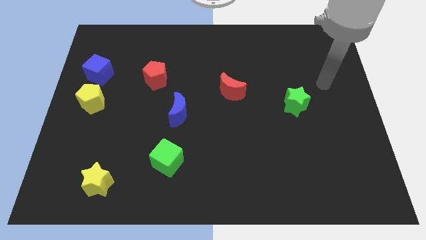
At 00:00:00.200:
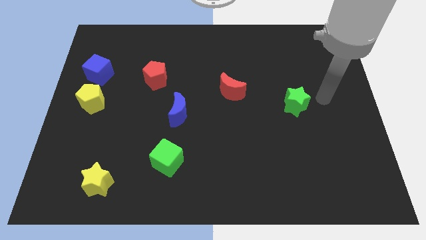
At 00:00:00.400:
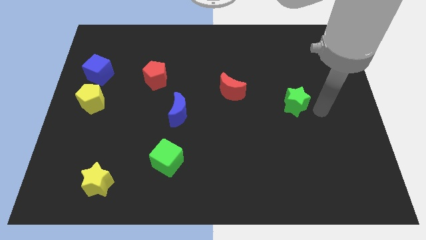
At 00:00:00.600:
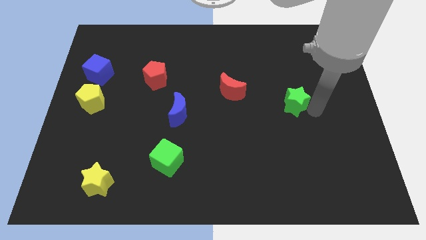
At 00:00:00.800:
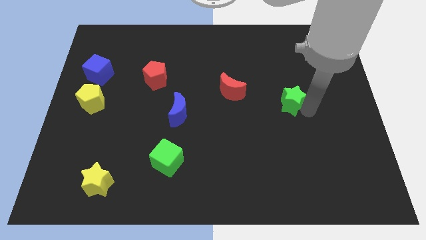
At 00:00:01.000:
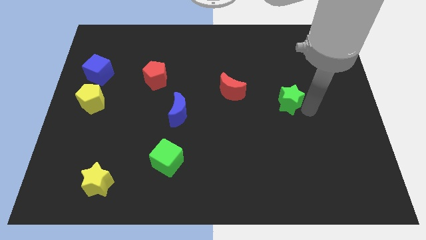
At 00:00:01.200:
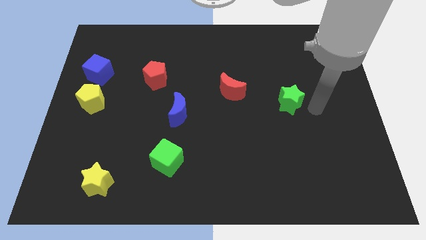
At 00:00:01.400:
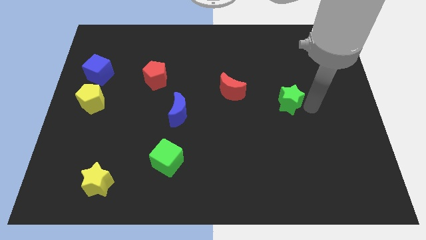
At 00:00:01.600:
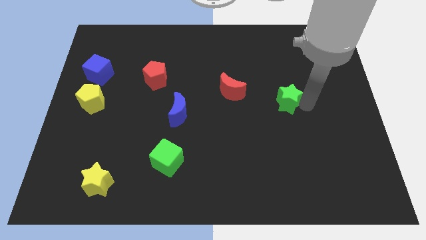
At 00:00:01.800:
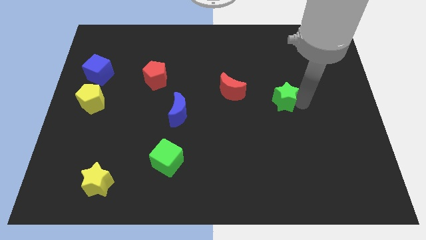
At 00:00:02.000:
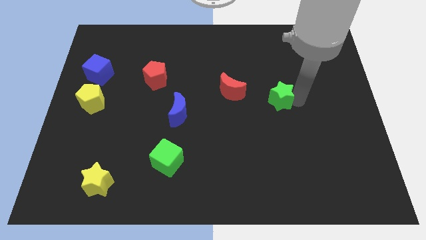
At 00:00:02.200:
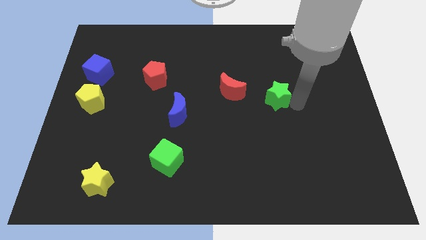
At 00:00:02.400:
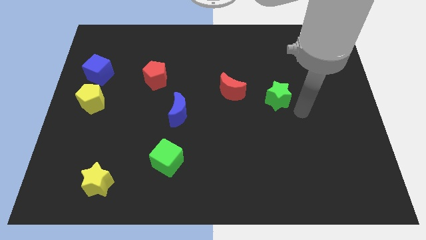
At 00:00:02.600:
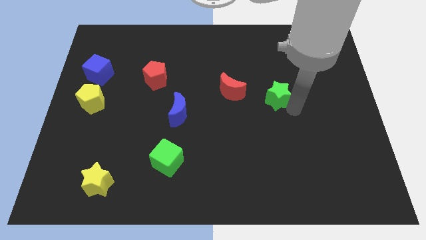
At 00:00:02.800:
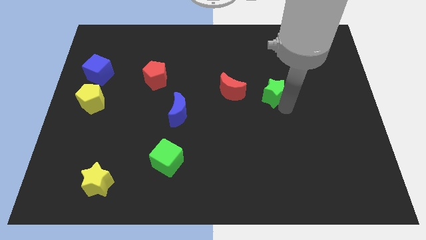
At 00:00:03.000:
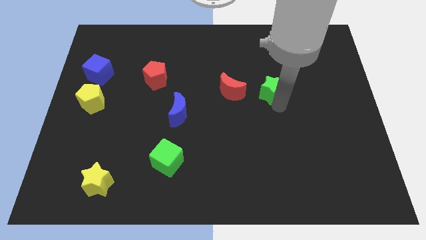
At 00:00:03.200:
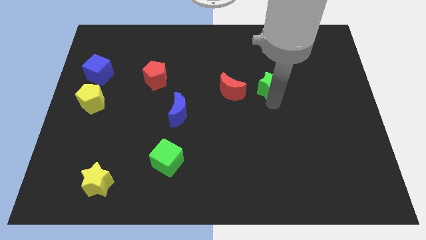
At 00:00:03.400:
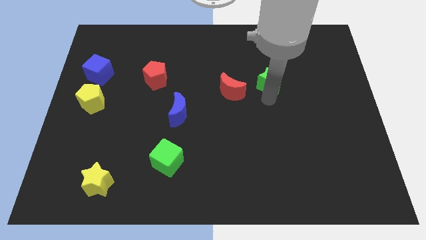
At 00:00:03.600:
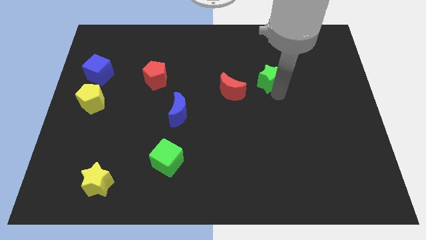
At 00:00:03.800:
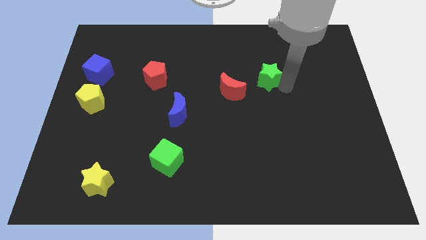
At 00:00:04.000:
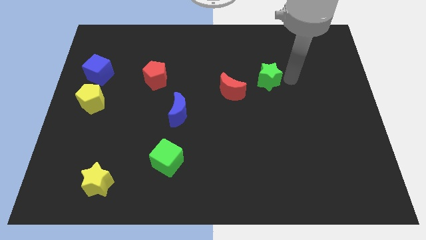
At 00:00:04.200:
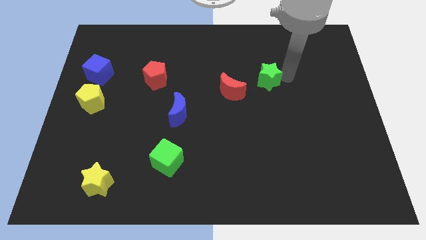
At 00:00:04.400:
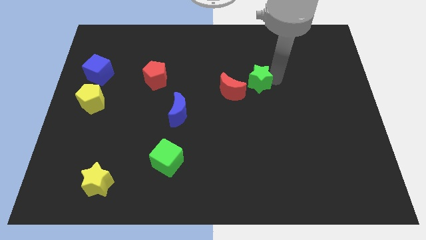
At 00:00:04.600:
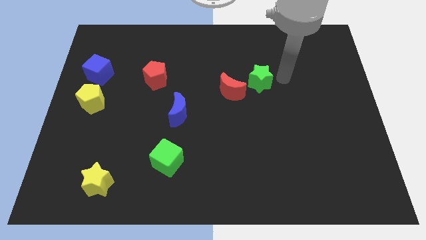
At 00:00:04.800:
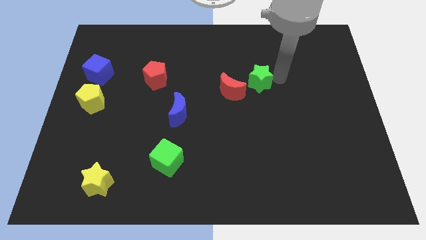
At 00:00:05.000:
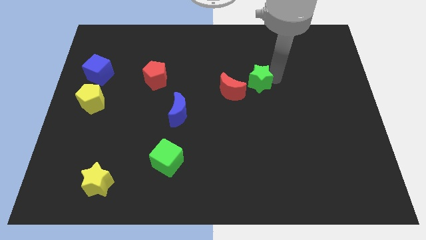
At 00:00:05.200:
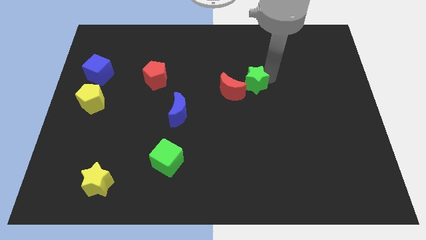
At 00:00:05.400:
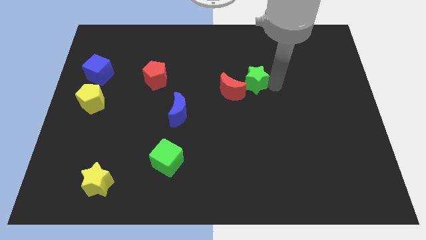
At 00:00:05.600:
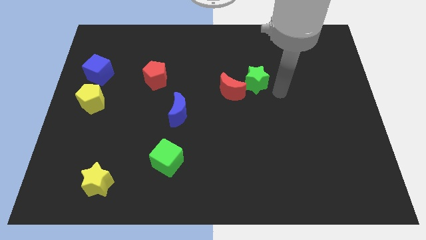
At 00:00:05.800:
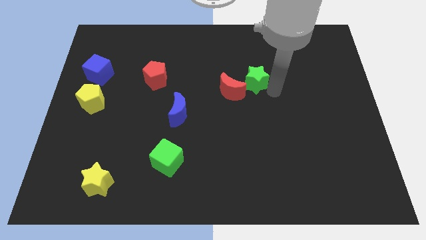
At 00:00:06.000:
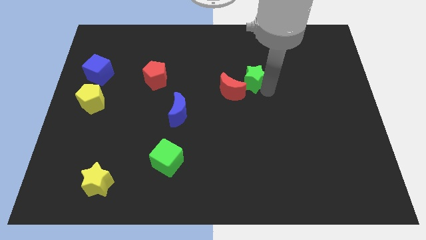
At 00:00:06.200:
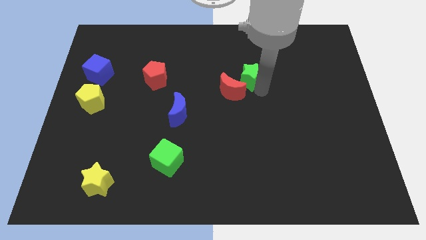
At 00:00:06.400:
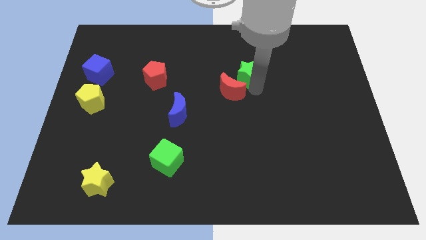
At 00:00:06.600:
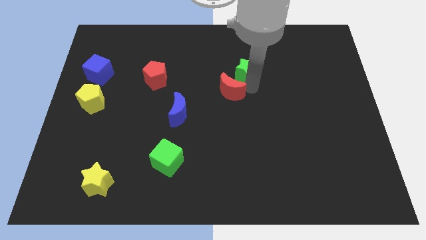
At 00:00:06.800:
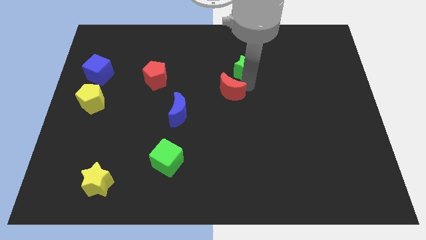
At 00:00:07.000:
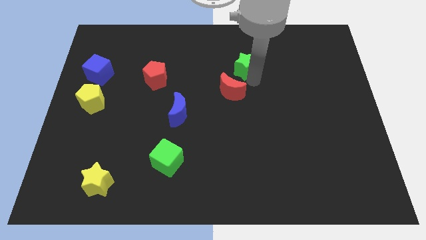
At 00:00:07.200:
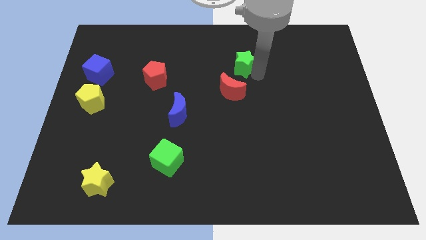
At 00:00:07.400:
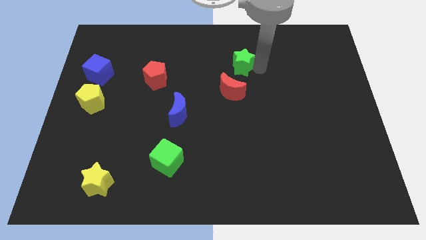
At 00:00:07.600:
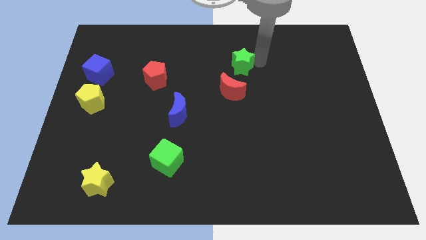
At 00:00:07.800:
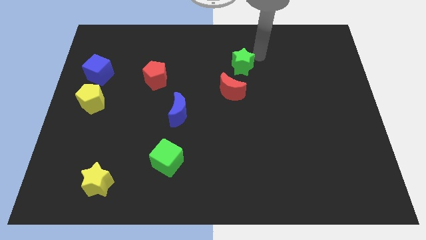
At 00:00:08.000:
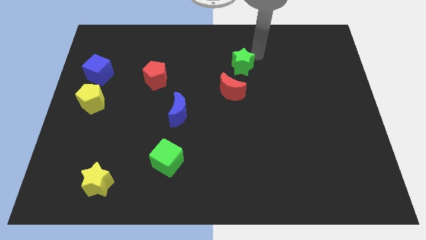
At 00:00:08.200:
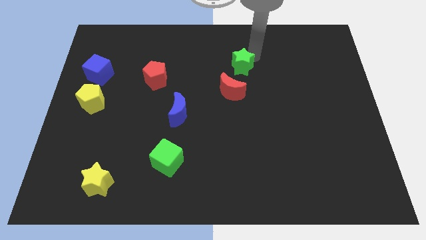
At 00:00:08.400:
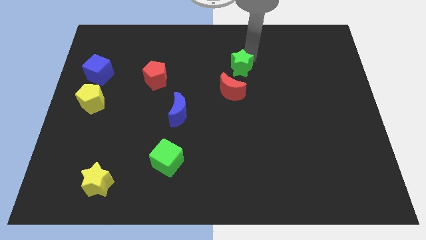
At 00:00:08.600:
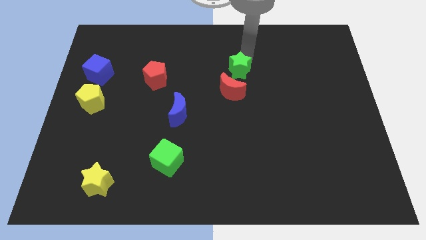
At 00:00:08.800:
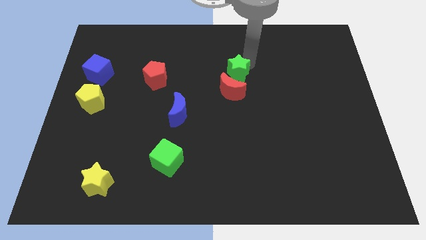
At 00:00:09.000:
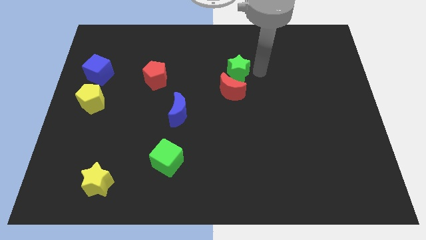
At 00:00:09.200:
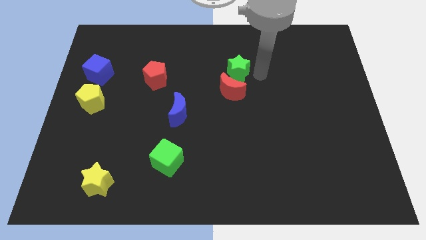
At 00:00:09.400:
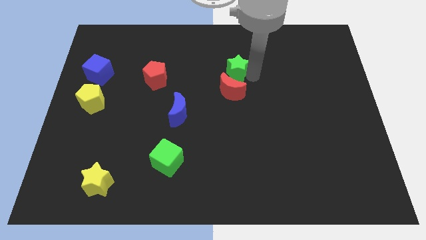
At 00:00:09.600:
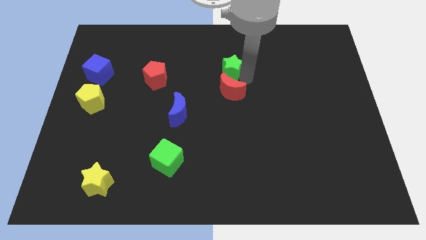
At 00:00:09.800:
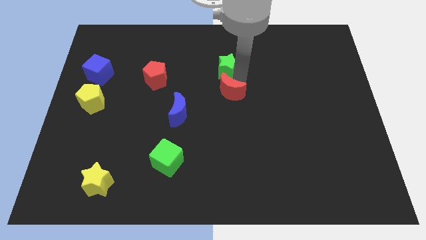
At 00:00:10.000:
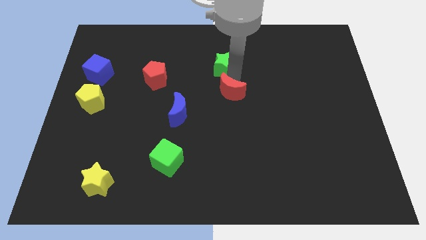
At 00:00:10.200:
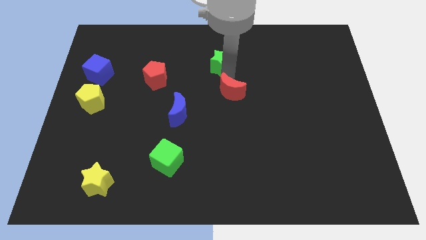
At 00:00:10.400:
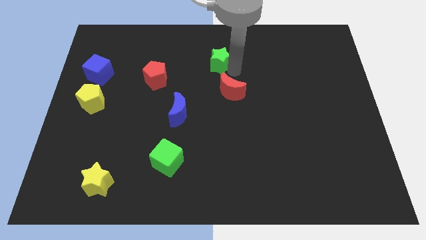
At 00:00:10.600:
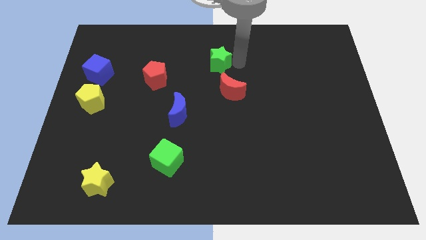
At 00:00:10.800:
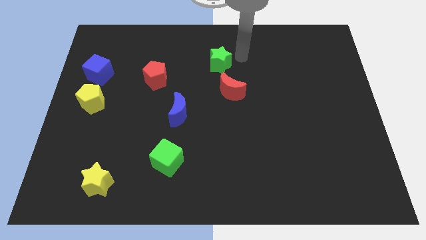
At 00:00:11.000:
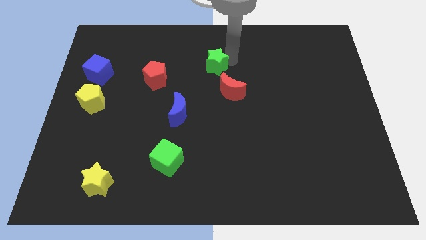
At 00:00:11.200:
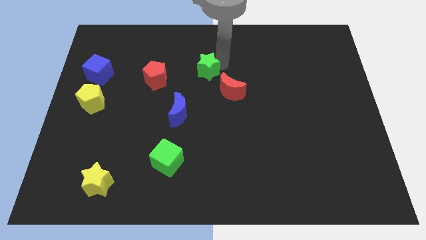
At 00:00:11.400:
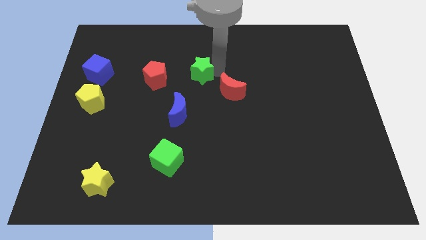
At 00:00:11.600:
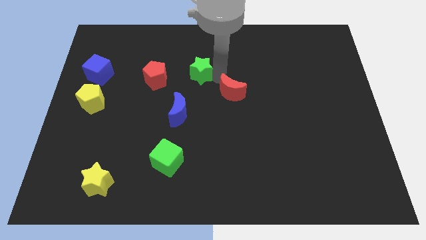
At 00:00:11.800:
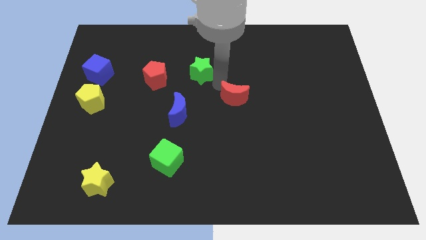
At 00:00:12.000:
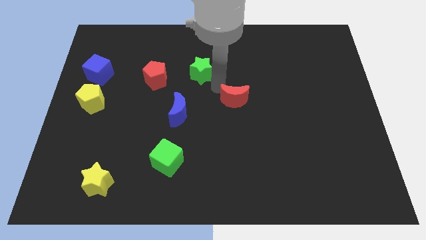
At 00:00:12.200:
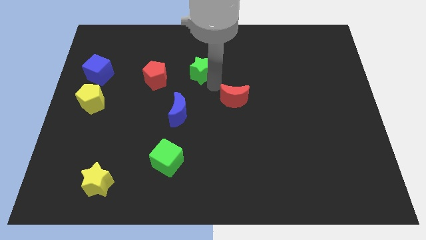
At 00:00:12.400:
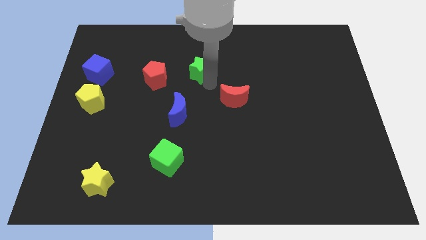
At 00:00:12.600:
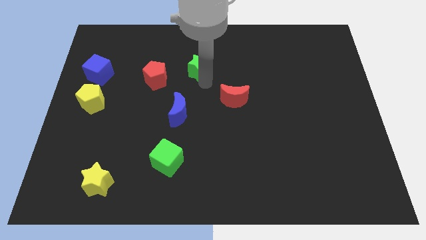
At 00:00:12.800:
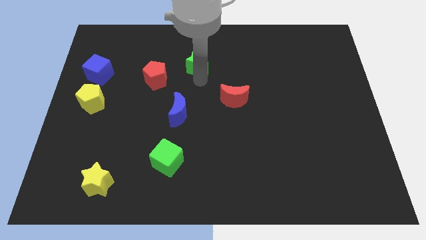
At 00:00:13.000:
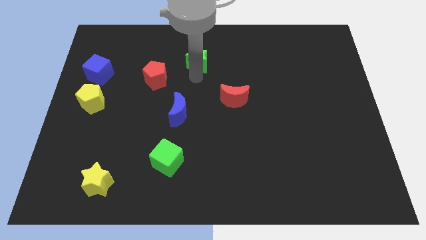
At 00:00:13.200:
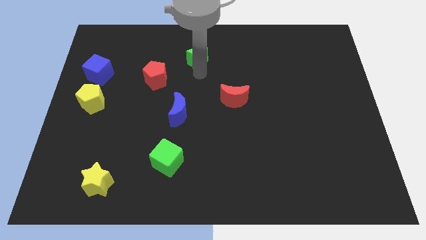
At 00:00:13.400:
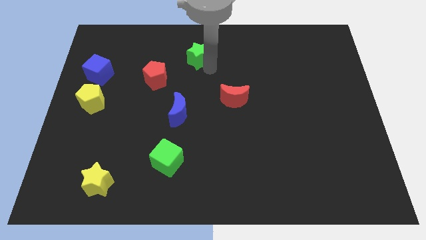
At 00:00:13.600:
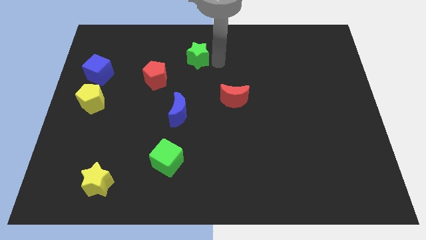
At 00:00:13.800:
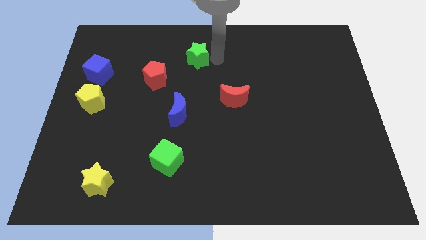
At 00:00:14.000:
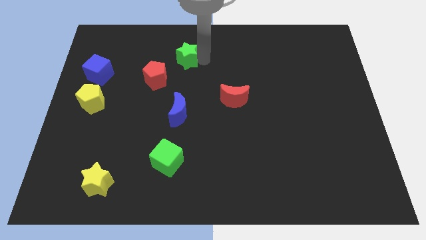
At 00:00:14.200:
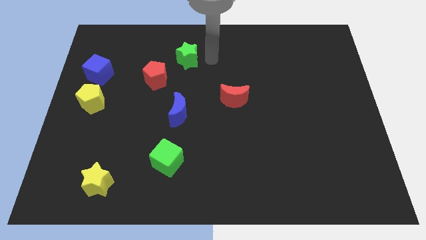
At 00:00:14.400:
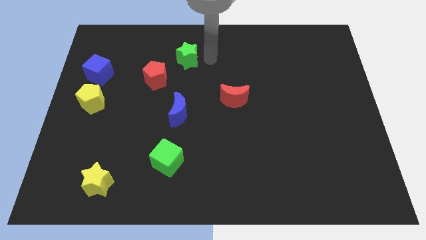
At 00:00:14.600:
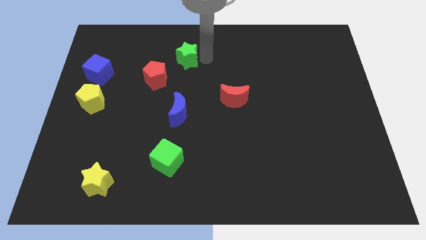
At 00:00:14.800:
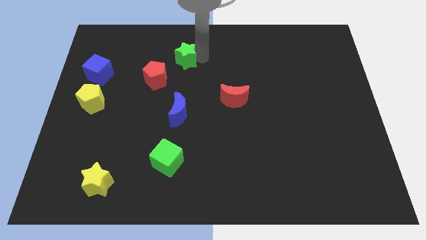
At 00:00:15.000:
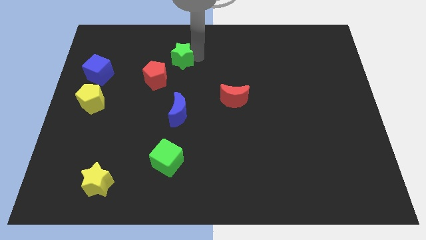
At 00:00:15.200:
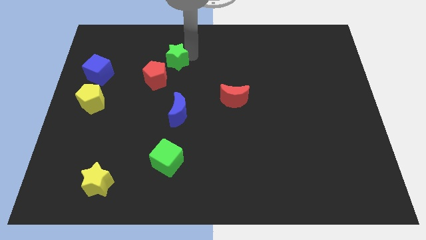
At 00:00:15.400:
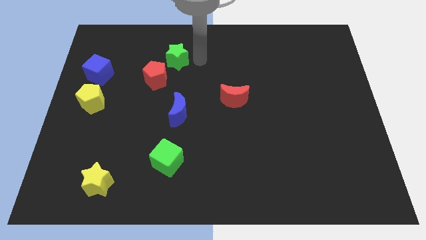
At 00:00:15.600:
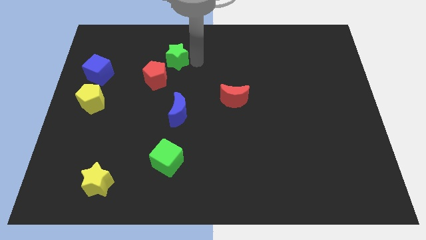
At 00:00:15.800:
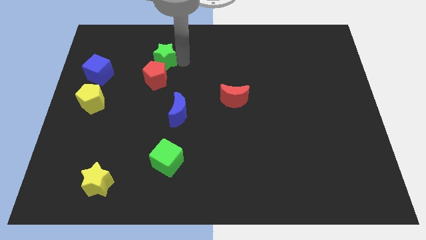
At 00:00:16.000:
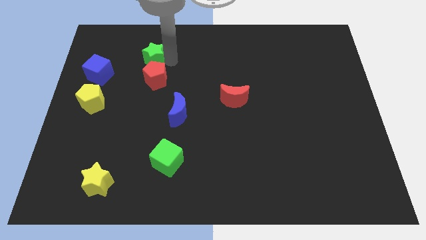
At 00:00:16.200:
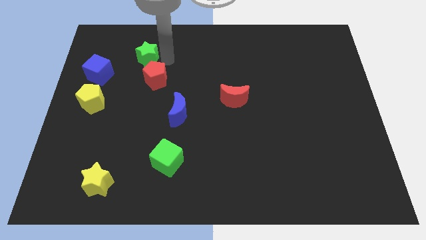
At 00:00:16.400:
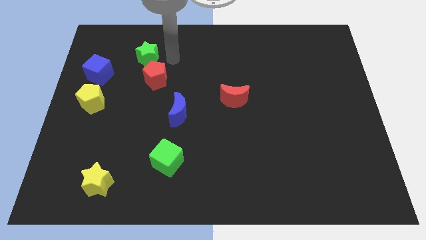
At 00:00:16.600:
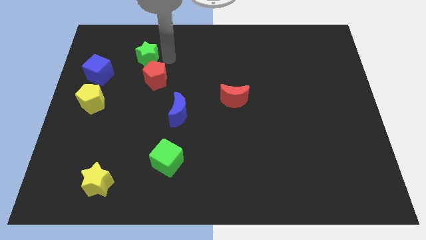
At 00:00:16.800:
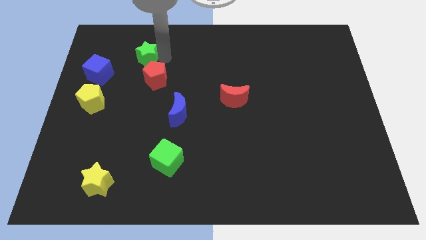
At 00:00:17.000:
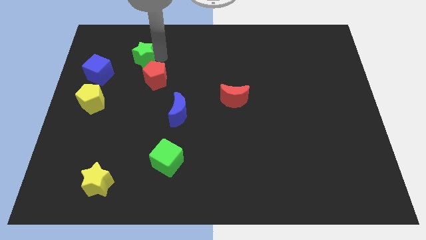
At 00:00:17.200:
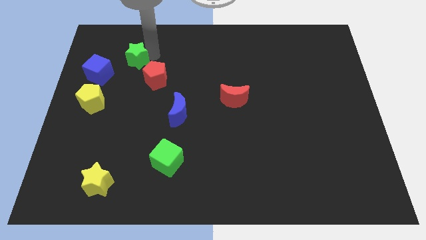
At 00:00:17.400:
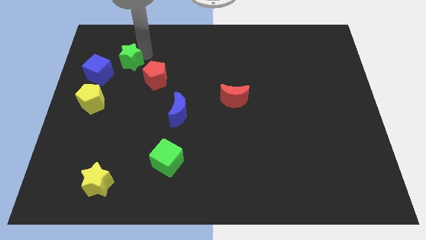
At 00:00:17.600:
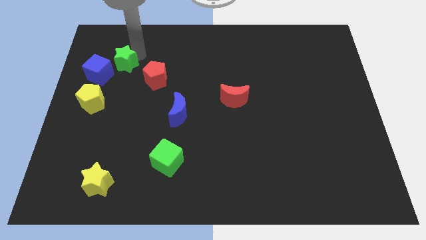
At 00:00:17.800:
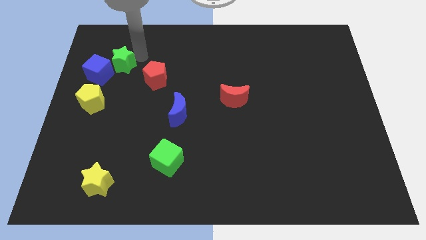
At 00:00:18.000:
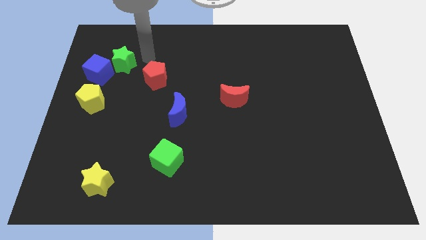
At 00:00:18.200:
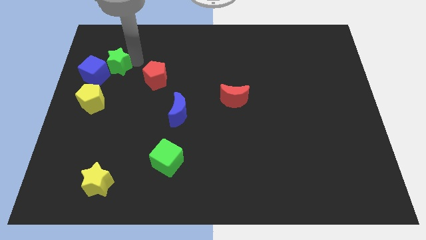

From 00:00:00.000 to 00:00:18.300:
move the green star above the yellow pentagon
